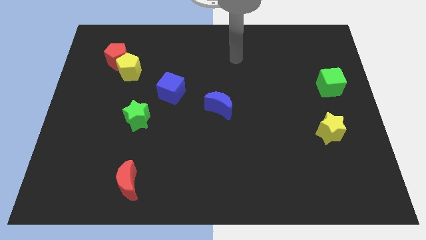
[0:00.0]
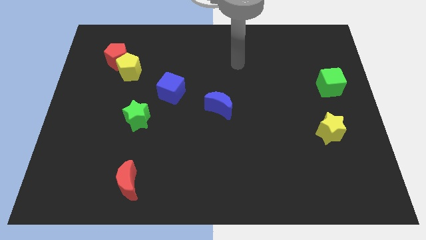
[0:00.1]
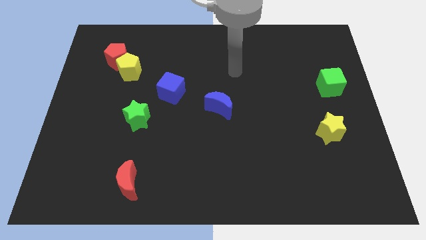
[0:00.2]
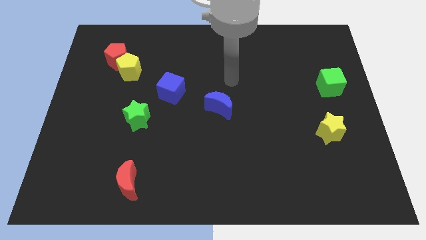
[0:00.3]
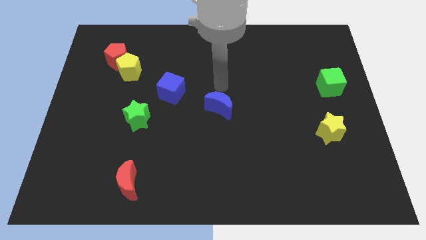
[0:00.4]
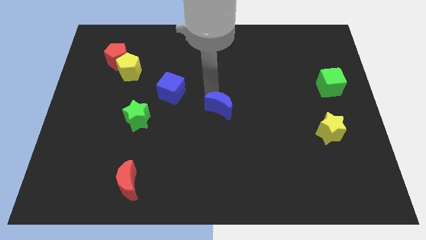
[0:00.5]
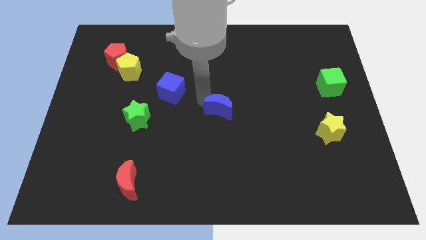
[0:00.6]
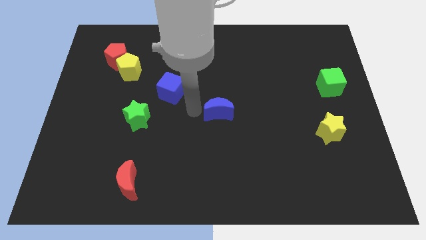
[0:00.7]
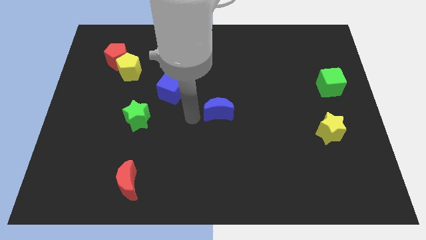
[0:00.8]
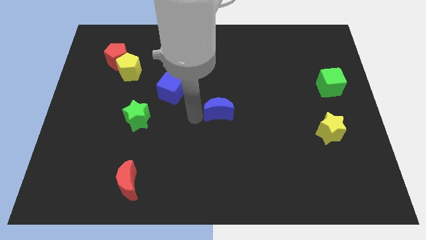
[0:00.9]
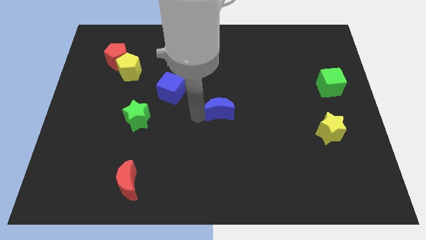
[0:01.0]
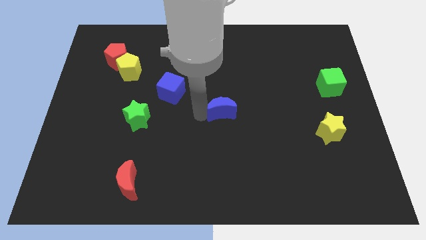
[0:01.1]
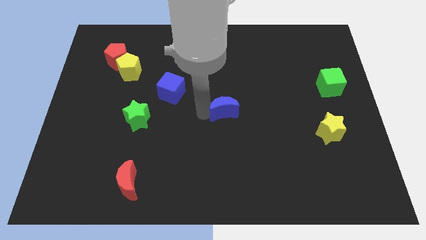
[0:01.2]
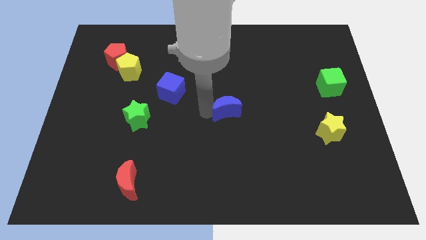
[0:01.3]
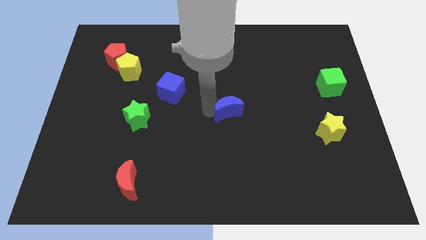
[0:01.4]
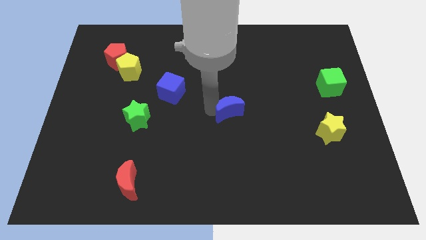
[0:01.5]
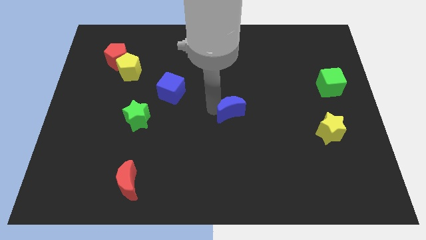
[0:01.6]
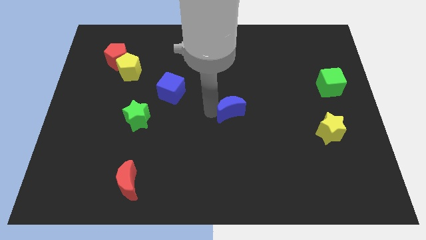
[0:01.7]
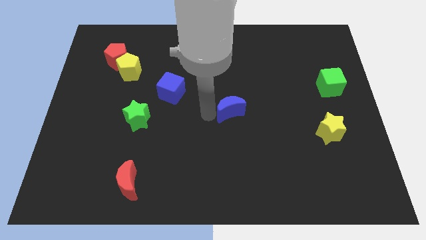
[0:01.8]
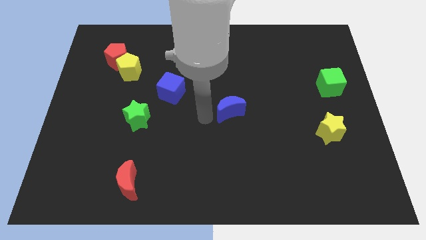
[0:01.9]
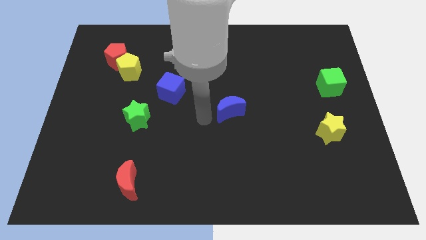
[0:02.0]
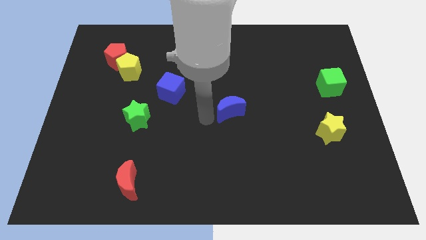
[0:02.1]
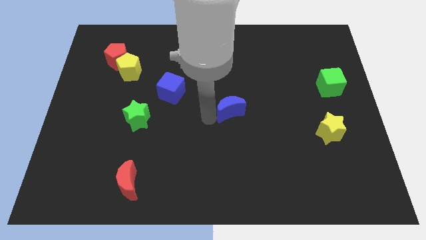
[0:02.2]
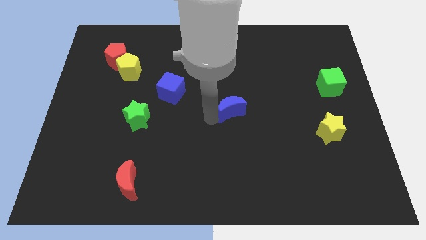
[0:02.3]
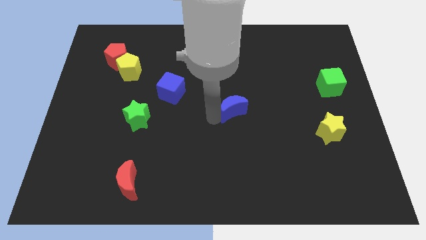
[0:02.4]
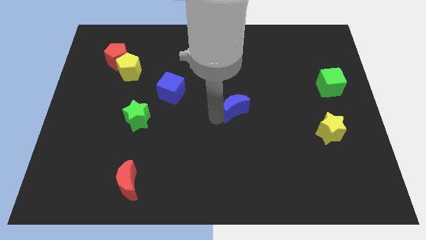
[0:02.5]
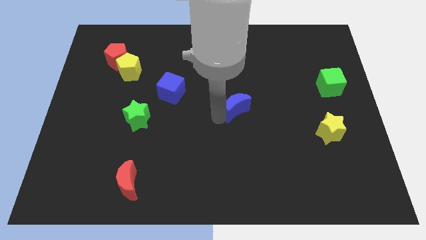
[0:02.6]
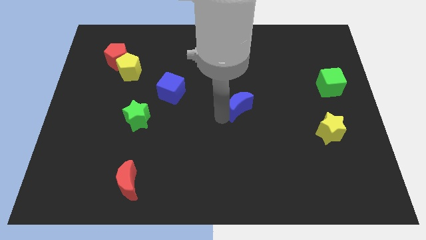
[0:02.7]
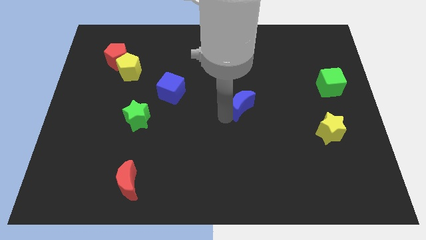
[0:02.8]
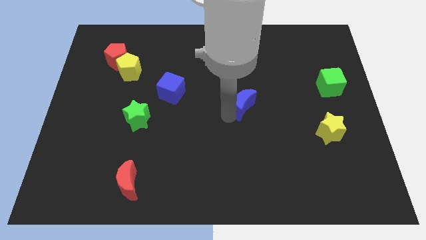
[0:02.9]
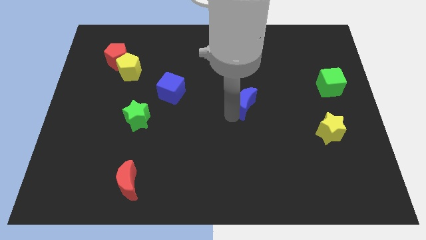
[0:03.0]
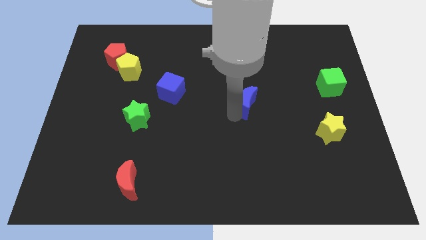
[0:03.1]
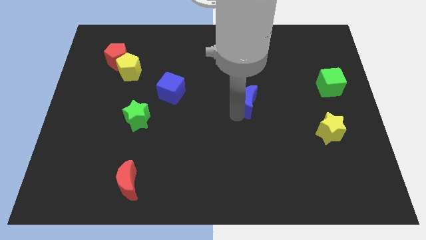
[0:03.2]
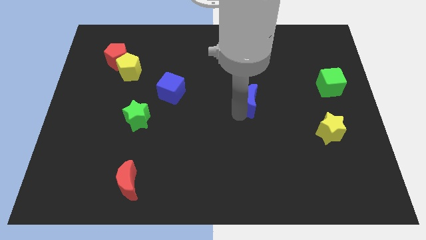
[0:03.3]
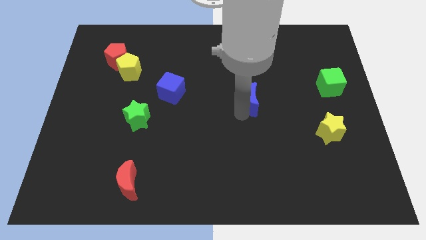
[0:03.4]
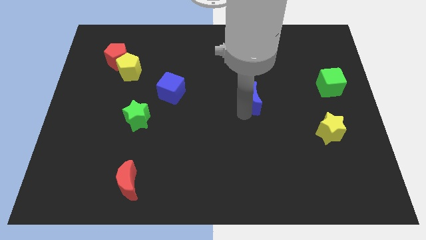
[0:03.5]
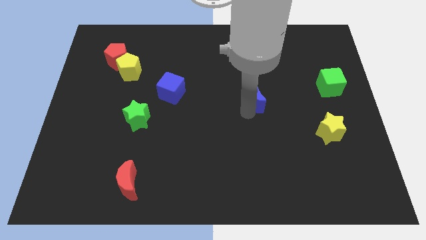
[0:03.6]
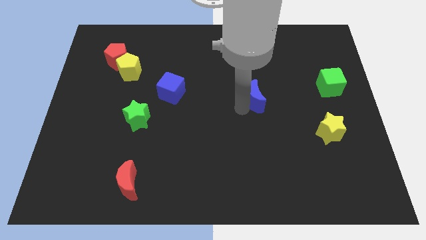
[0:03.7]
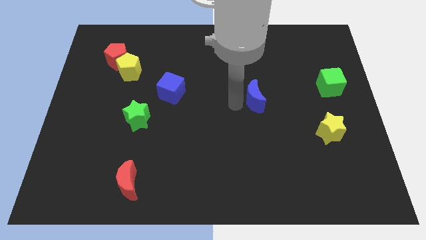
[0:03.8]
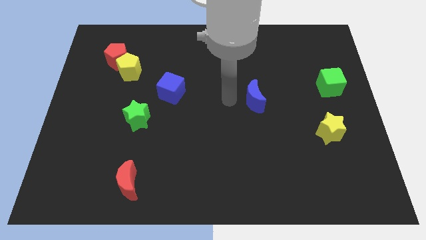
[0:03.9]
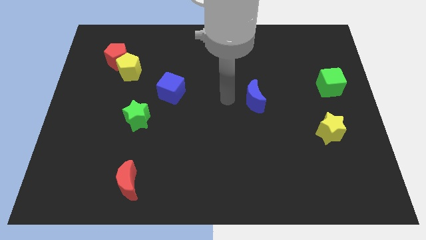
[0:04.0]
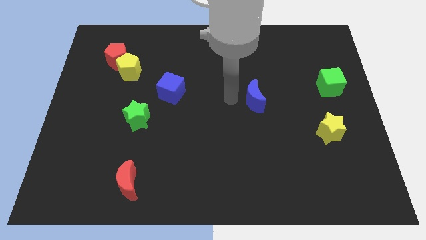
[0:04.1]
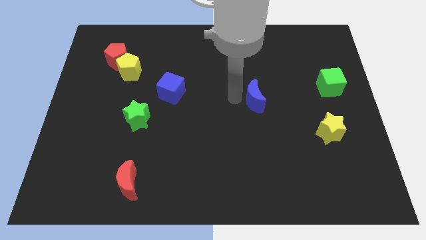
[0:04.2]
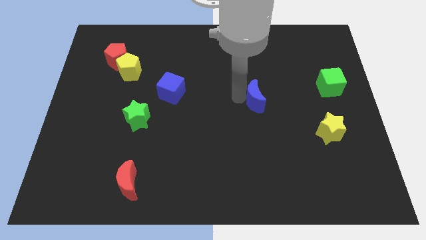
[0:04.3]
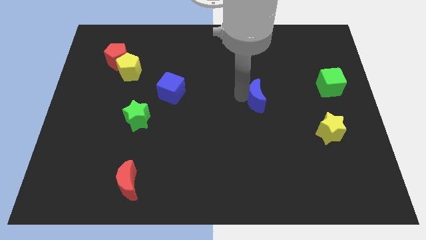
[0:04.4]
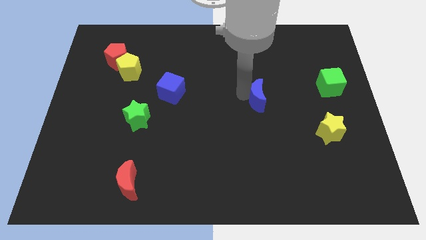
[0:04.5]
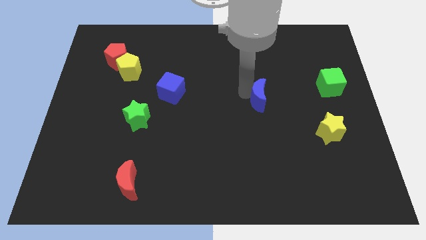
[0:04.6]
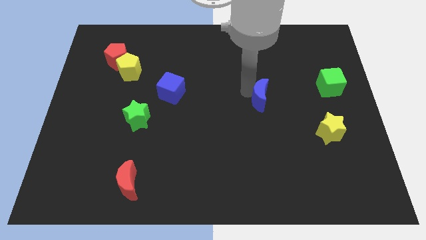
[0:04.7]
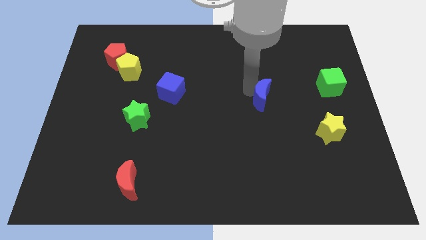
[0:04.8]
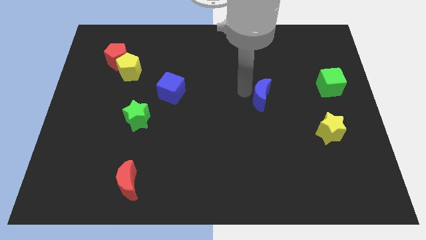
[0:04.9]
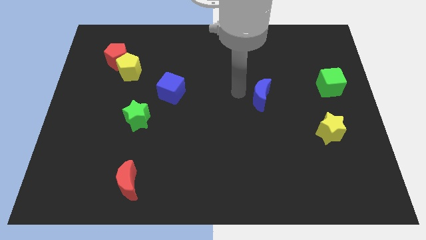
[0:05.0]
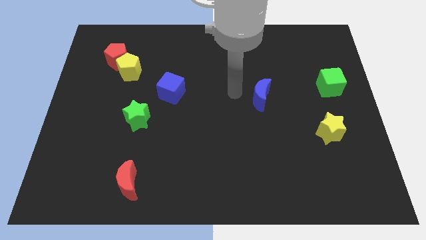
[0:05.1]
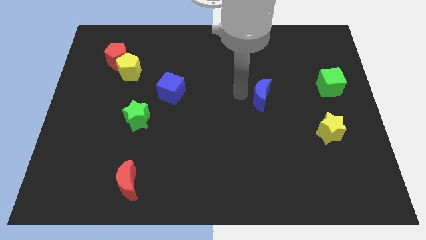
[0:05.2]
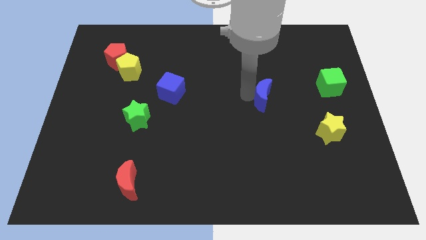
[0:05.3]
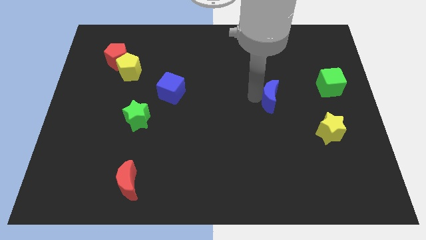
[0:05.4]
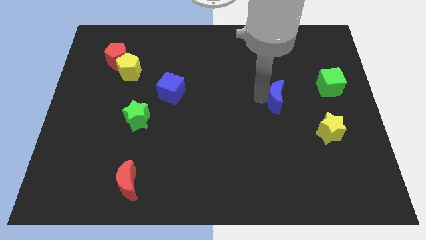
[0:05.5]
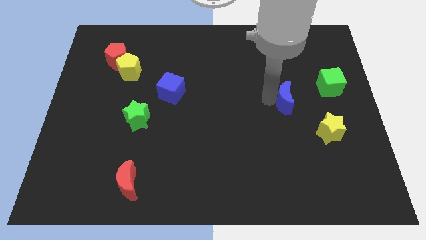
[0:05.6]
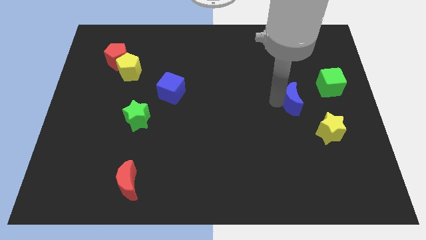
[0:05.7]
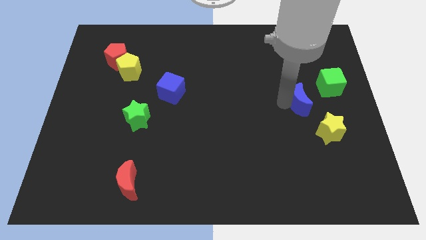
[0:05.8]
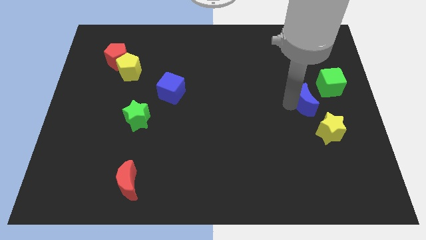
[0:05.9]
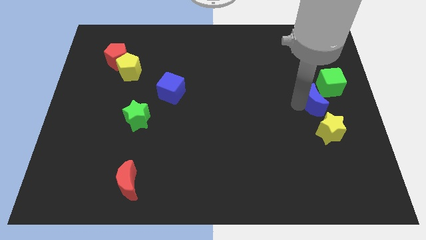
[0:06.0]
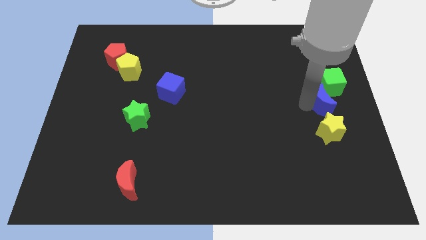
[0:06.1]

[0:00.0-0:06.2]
push the blue moon to the center right

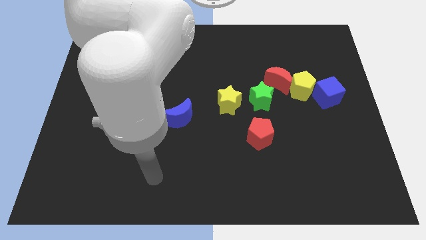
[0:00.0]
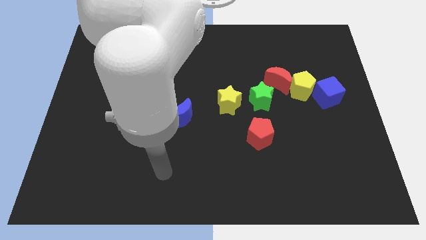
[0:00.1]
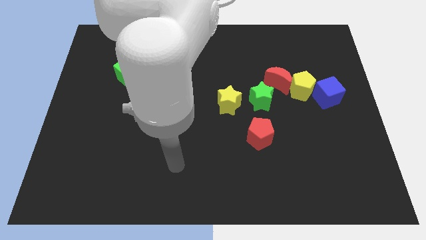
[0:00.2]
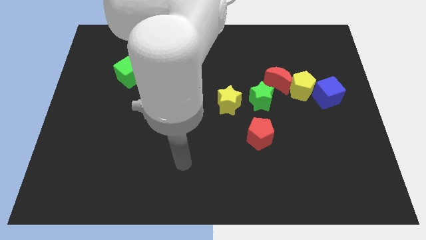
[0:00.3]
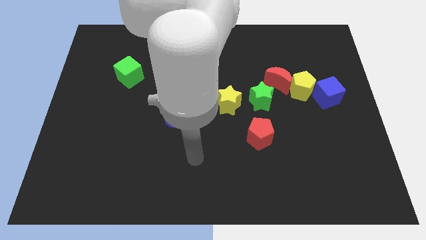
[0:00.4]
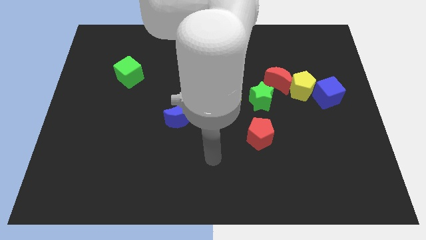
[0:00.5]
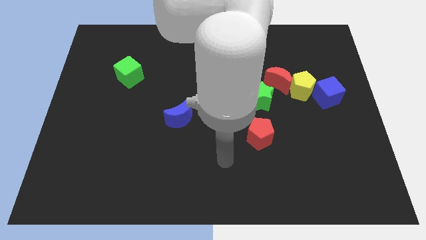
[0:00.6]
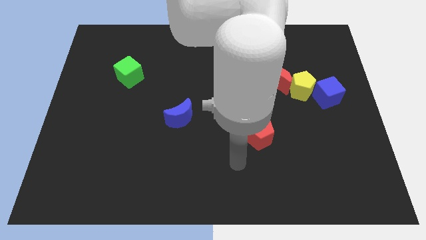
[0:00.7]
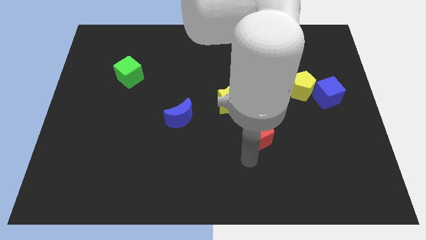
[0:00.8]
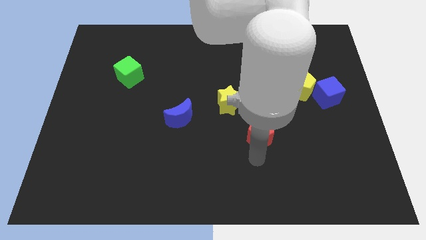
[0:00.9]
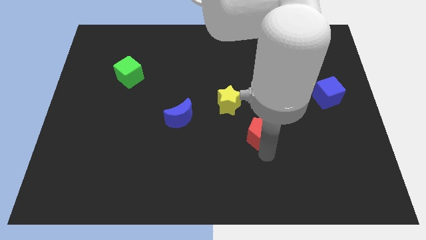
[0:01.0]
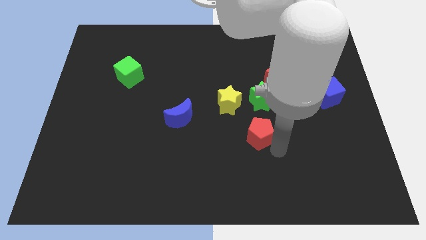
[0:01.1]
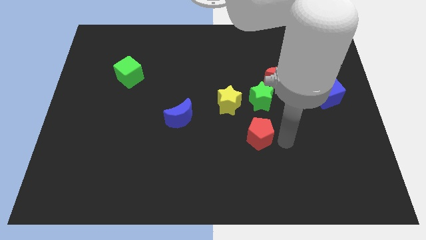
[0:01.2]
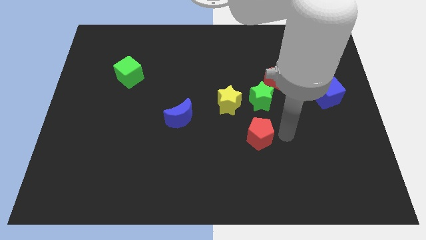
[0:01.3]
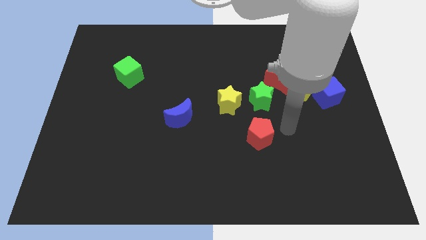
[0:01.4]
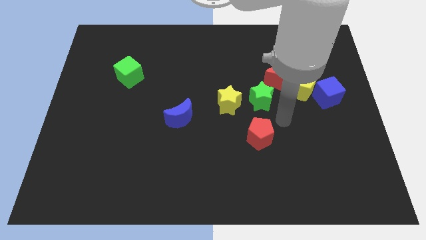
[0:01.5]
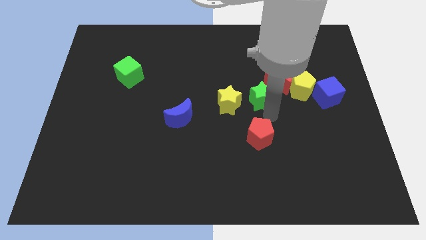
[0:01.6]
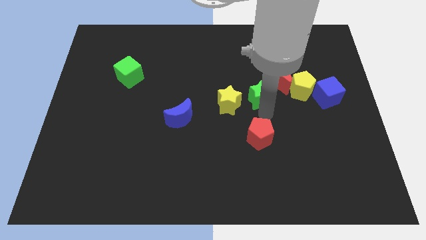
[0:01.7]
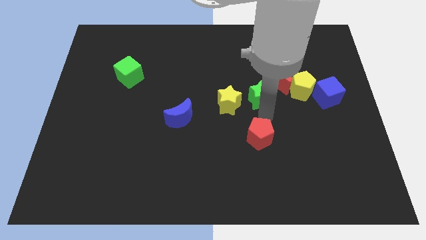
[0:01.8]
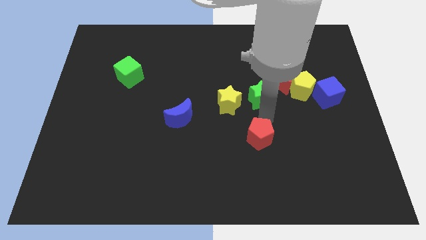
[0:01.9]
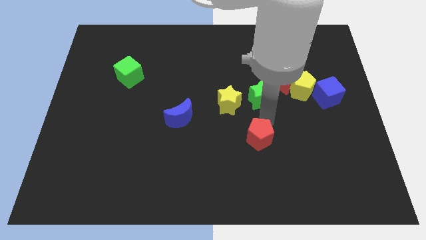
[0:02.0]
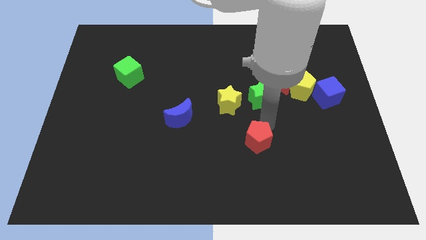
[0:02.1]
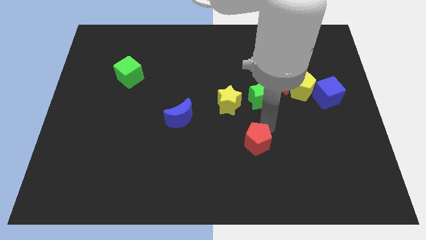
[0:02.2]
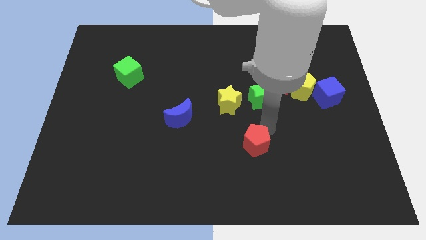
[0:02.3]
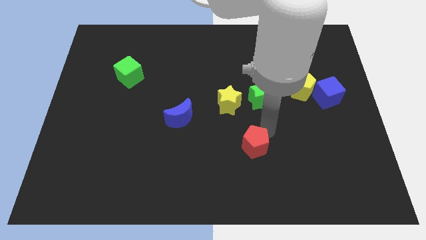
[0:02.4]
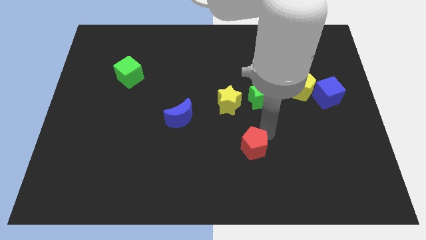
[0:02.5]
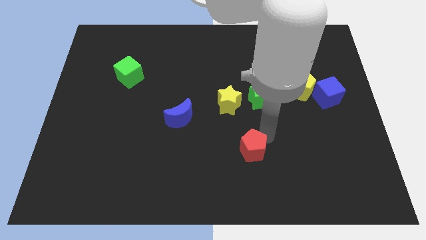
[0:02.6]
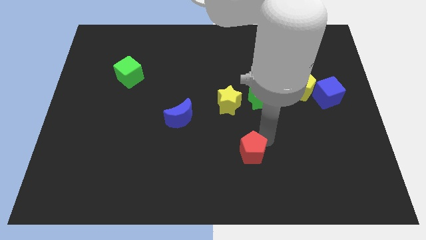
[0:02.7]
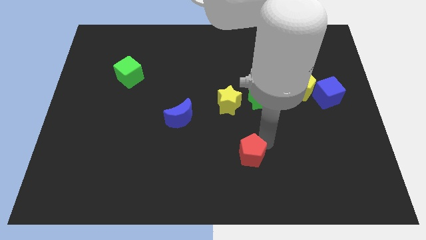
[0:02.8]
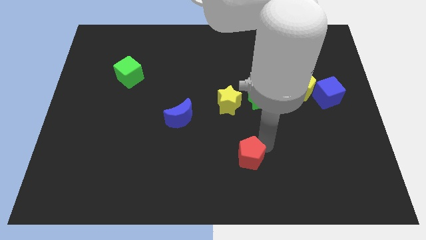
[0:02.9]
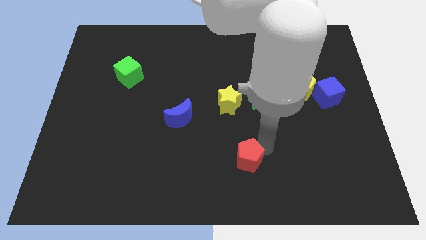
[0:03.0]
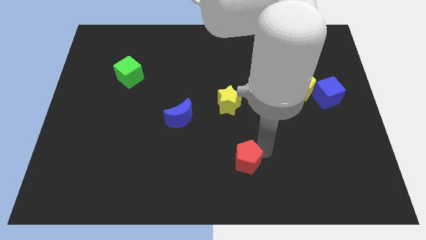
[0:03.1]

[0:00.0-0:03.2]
slide the red pentagon to the bottom
